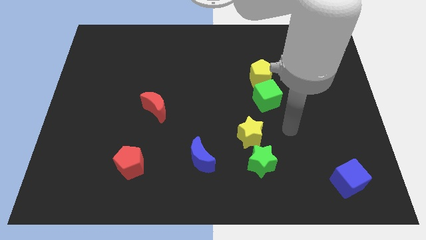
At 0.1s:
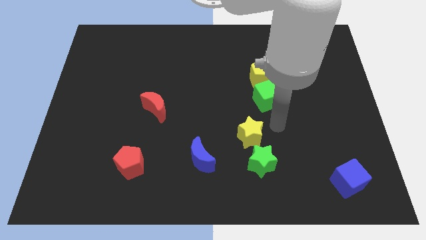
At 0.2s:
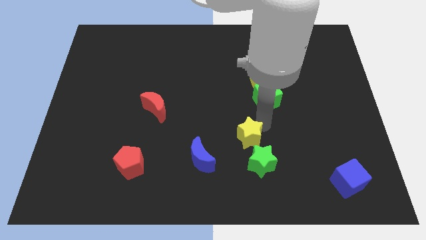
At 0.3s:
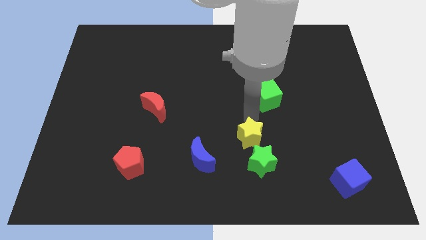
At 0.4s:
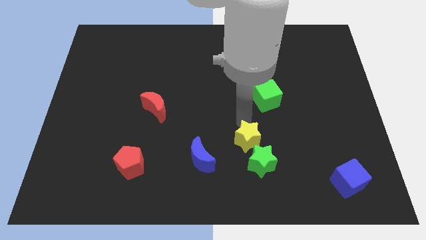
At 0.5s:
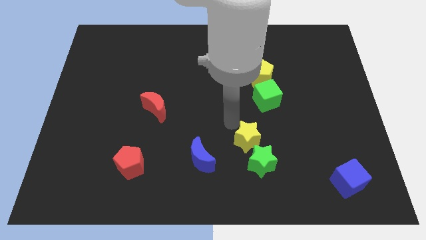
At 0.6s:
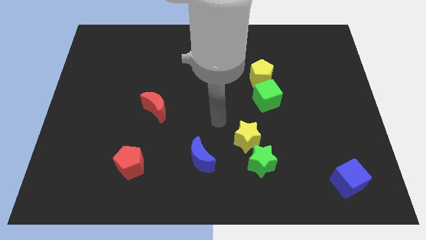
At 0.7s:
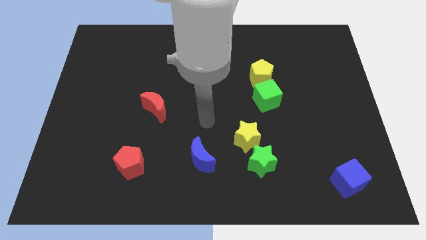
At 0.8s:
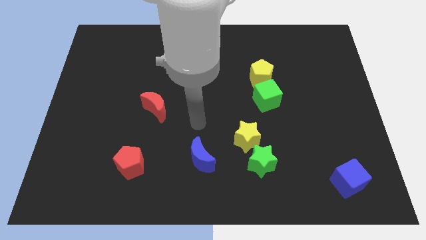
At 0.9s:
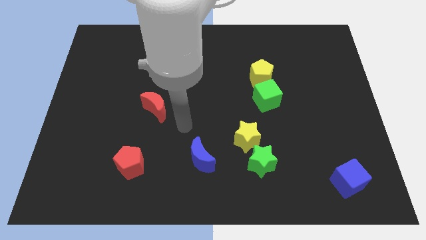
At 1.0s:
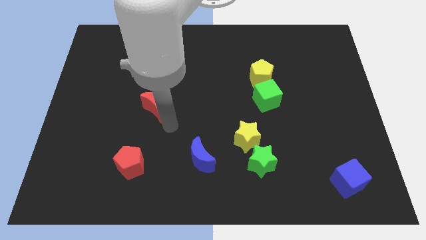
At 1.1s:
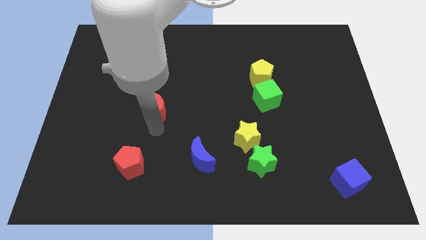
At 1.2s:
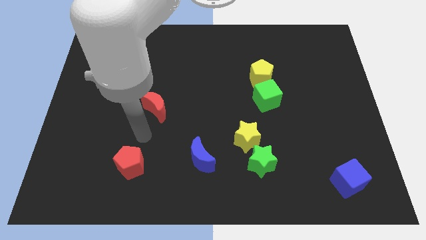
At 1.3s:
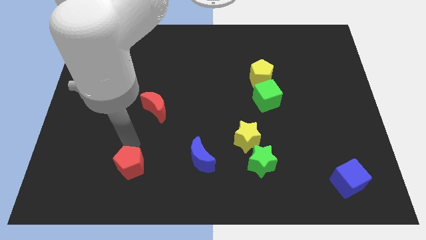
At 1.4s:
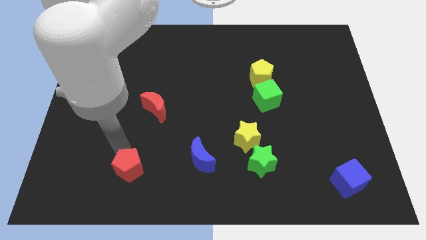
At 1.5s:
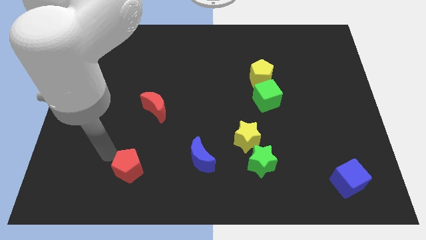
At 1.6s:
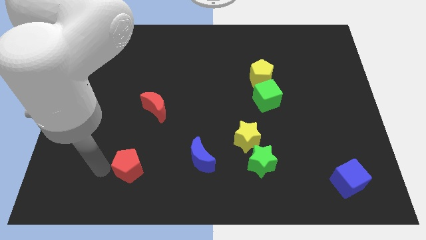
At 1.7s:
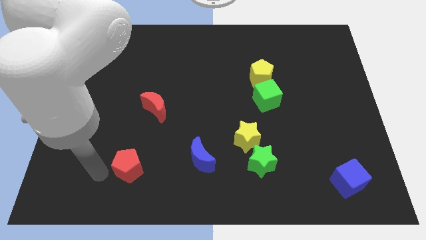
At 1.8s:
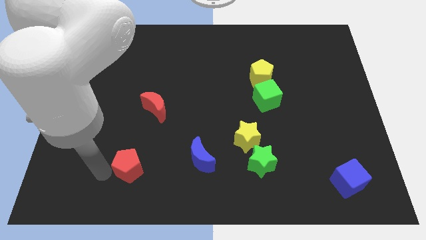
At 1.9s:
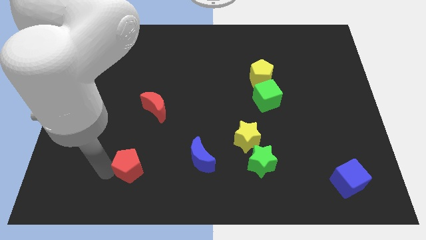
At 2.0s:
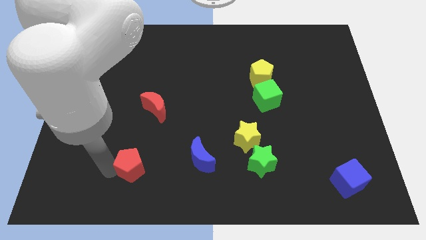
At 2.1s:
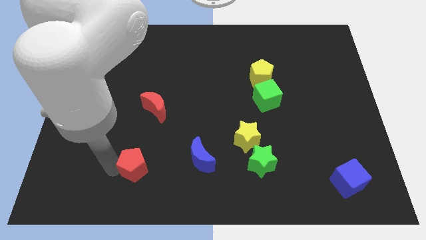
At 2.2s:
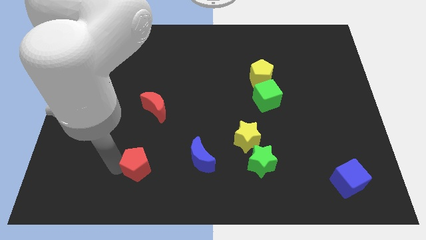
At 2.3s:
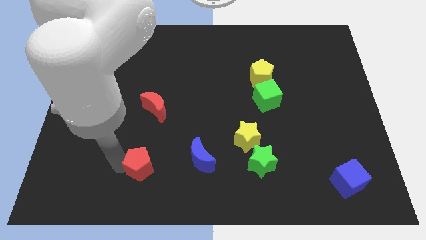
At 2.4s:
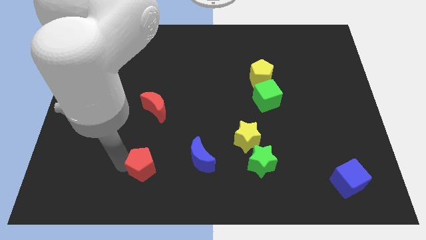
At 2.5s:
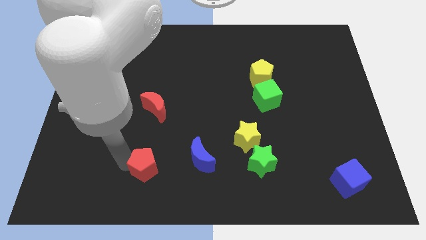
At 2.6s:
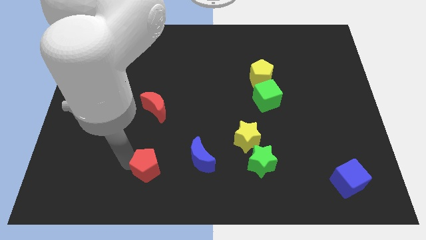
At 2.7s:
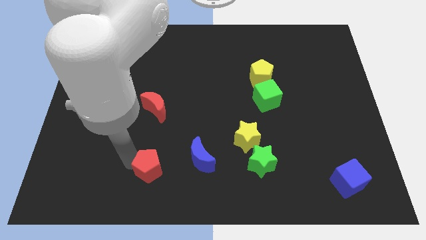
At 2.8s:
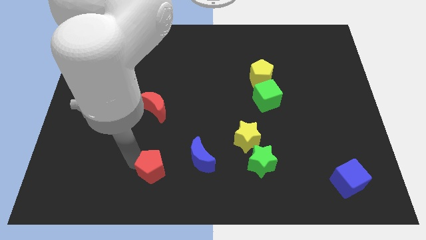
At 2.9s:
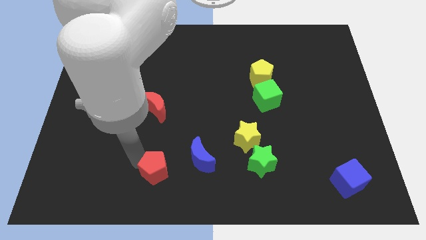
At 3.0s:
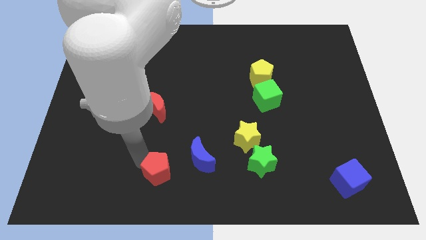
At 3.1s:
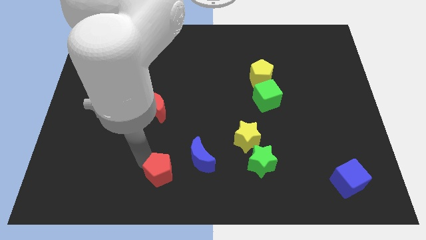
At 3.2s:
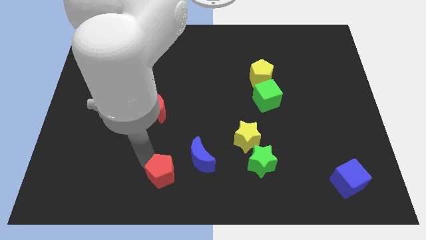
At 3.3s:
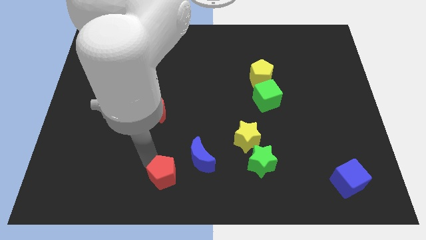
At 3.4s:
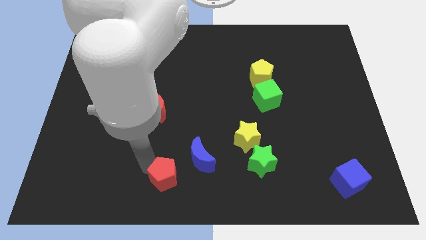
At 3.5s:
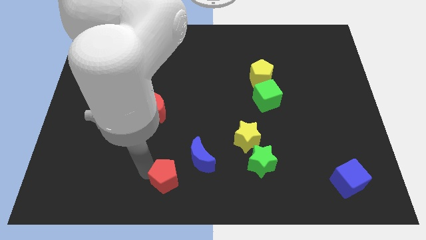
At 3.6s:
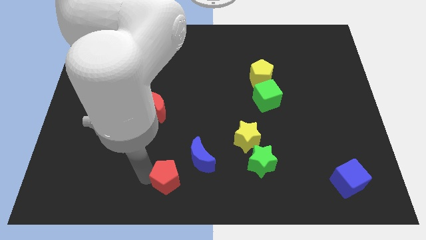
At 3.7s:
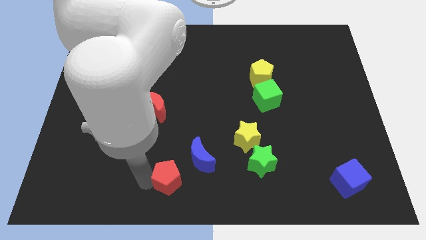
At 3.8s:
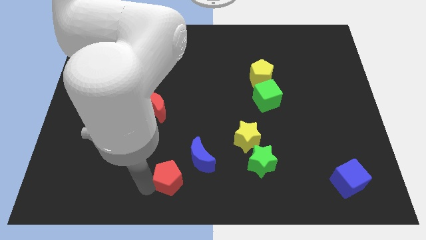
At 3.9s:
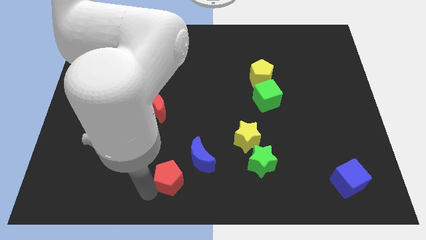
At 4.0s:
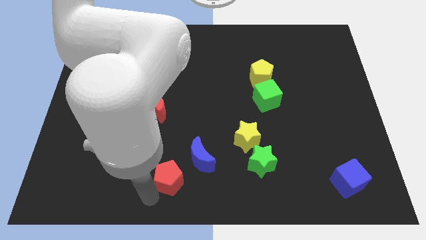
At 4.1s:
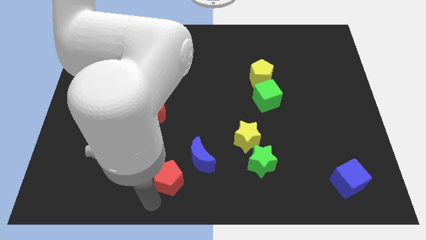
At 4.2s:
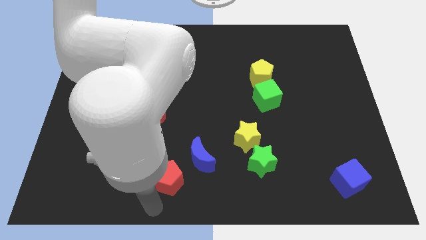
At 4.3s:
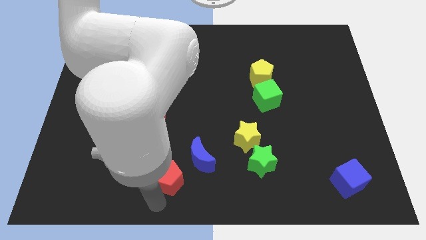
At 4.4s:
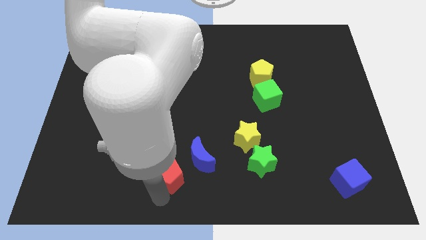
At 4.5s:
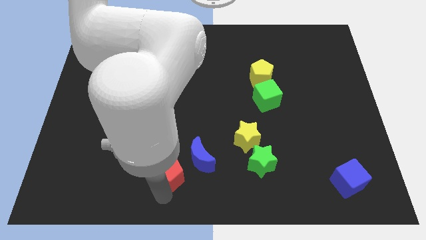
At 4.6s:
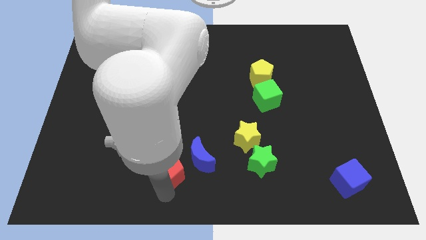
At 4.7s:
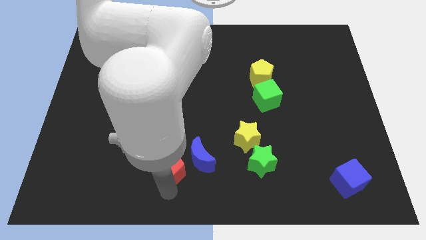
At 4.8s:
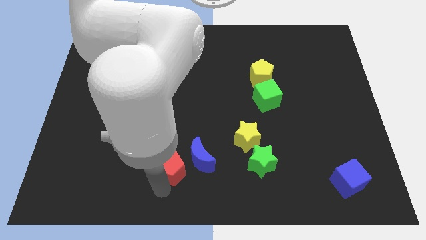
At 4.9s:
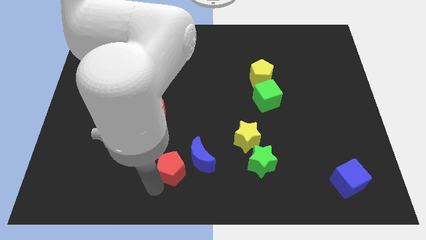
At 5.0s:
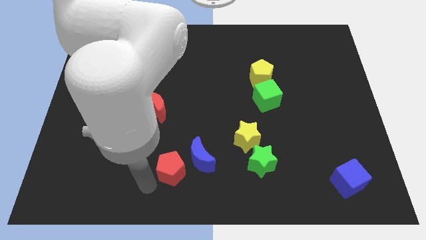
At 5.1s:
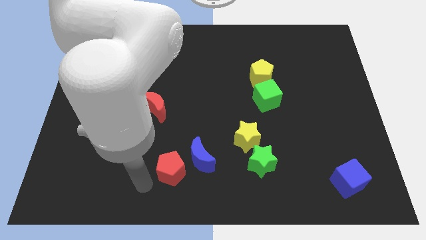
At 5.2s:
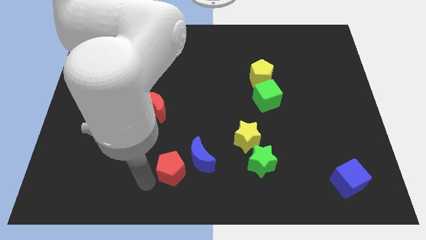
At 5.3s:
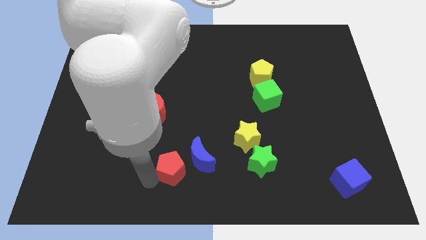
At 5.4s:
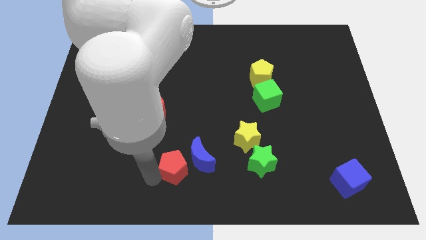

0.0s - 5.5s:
move the red pentagon close to the blue moon

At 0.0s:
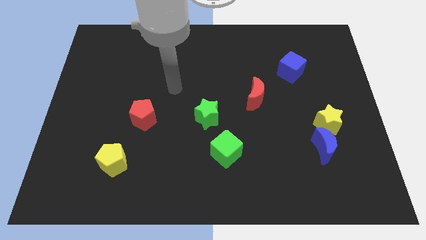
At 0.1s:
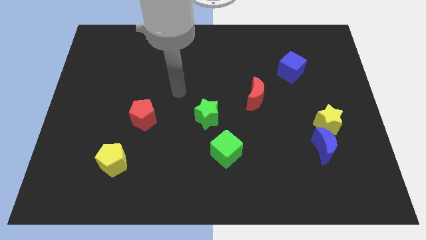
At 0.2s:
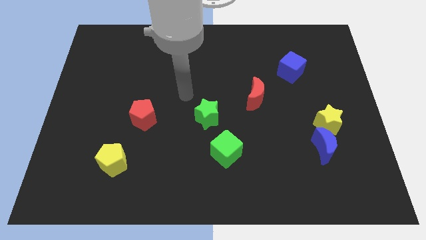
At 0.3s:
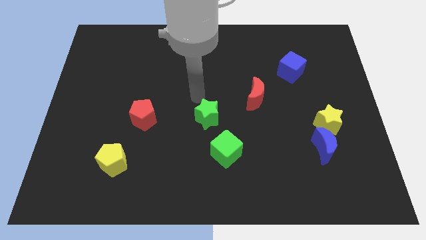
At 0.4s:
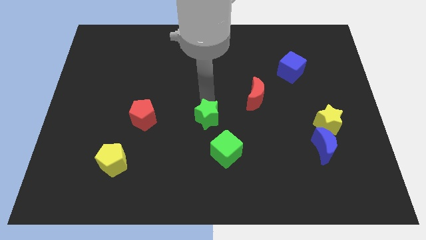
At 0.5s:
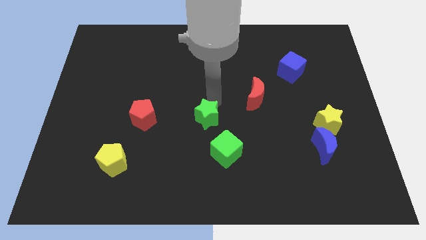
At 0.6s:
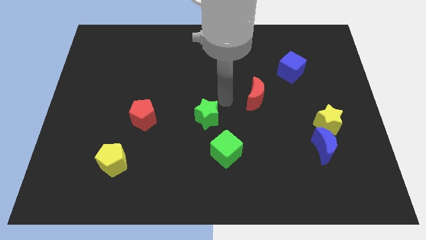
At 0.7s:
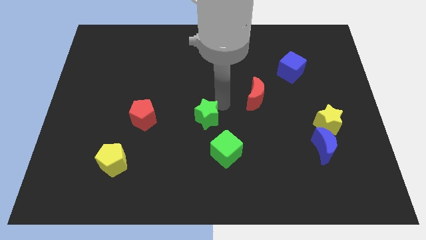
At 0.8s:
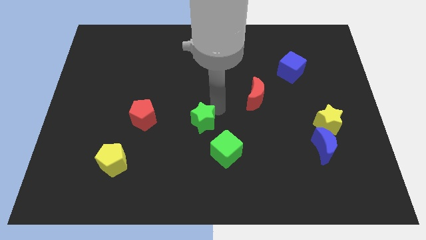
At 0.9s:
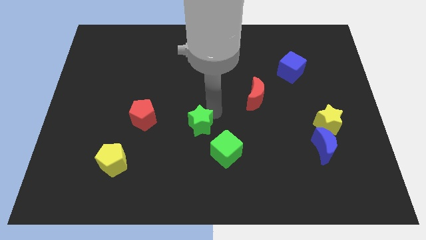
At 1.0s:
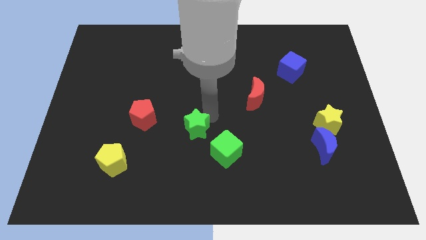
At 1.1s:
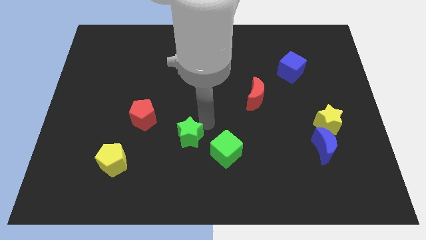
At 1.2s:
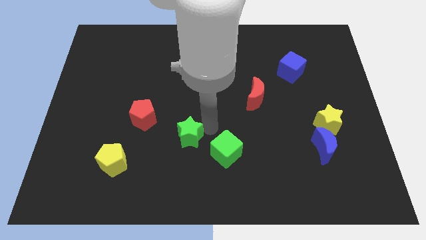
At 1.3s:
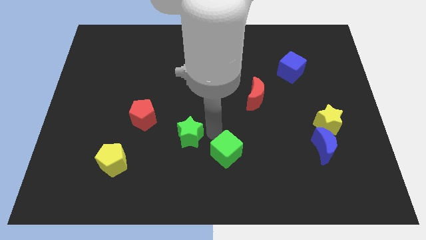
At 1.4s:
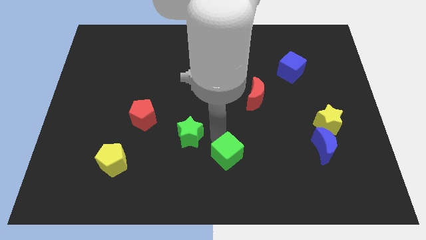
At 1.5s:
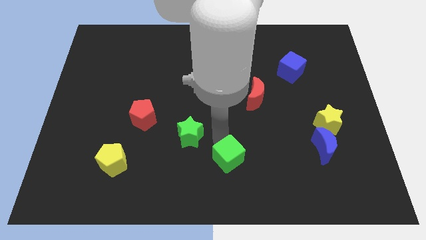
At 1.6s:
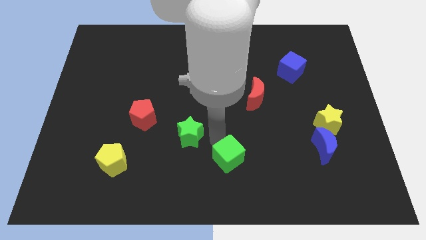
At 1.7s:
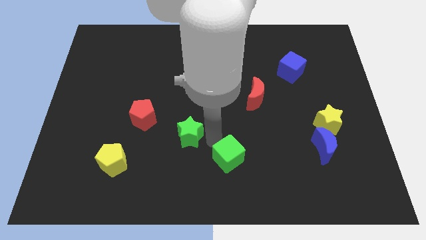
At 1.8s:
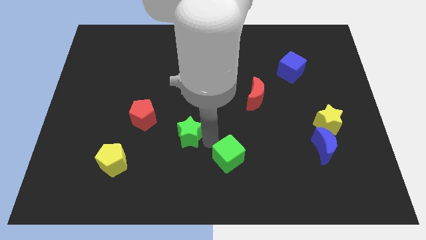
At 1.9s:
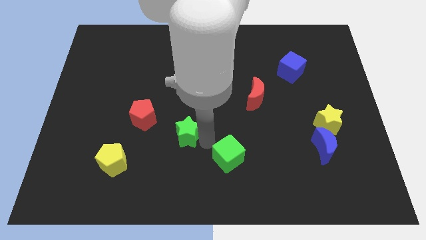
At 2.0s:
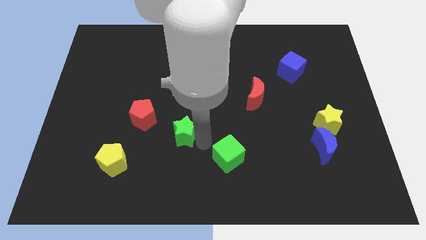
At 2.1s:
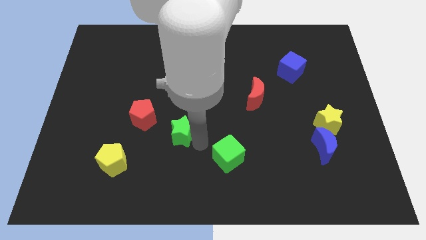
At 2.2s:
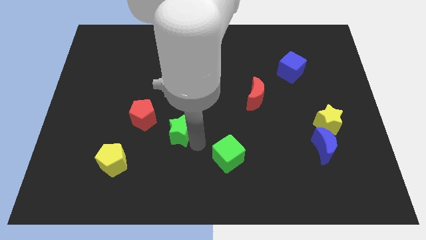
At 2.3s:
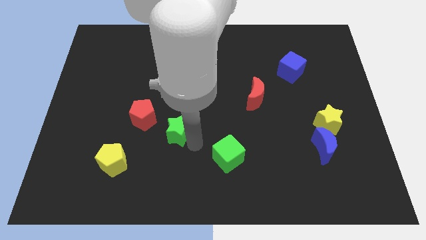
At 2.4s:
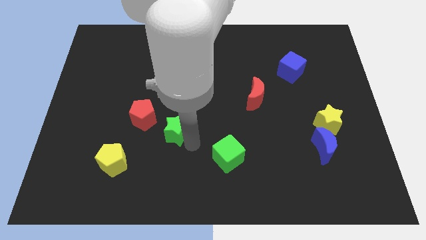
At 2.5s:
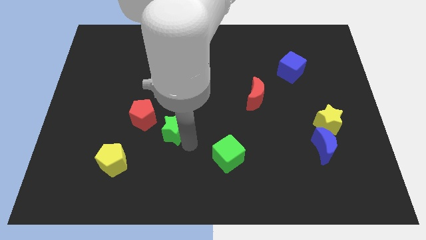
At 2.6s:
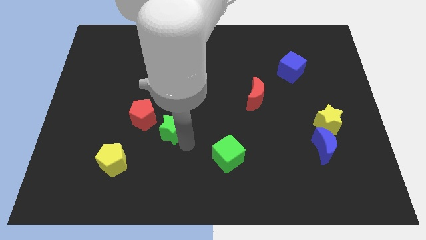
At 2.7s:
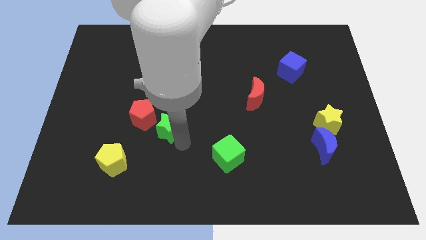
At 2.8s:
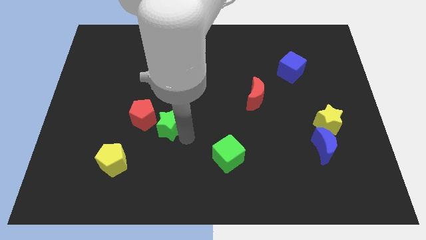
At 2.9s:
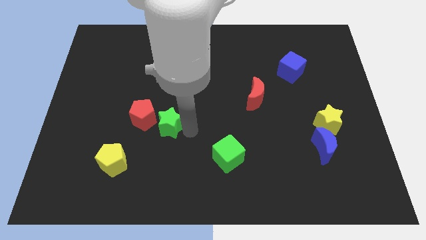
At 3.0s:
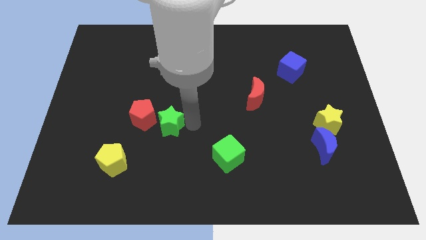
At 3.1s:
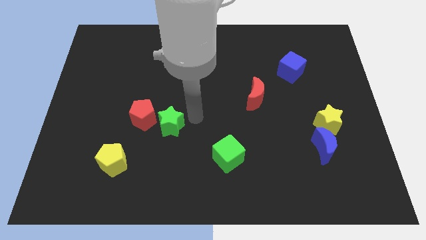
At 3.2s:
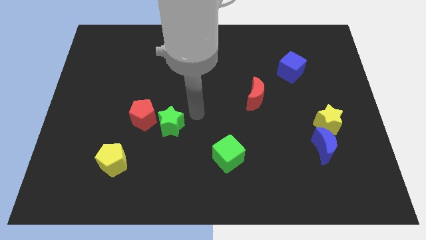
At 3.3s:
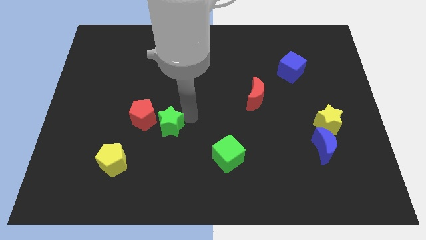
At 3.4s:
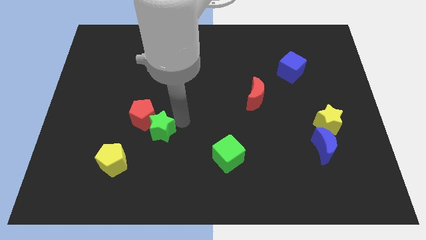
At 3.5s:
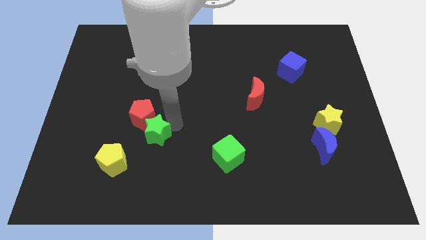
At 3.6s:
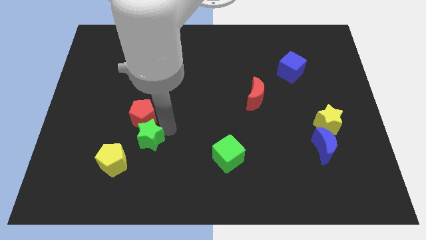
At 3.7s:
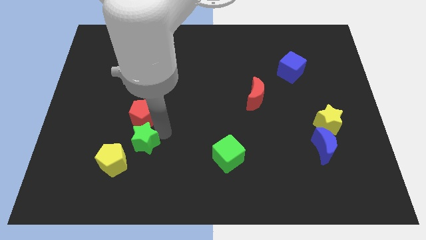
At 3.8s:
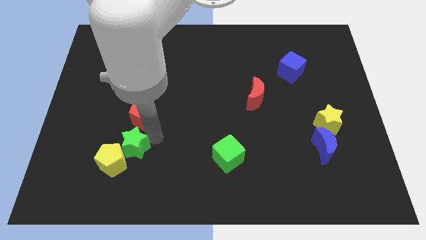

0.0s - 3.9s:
move the green star close to the yellow pentagon
